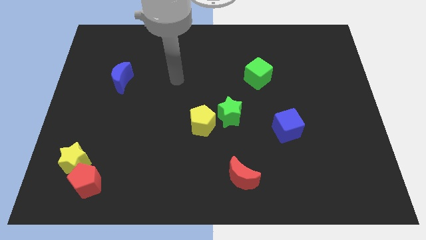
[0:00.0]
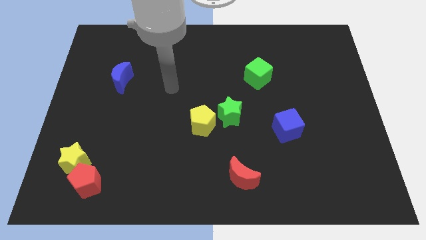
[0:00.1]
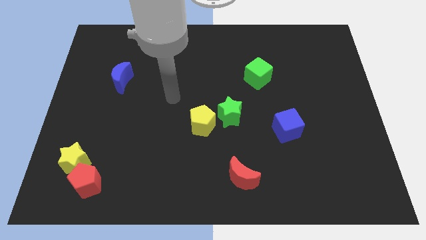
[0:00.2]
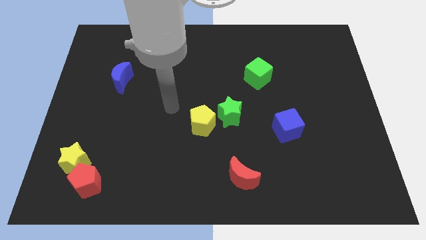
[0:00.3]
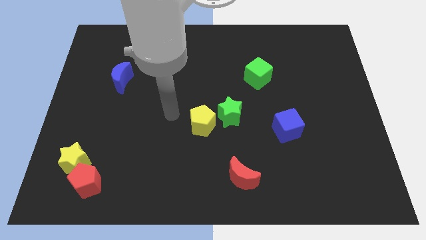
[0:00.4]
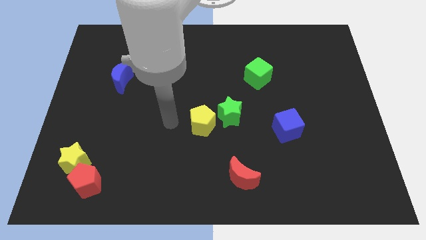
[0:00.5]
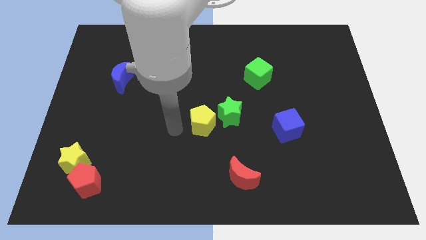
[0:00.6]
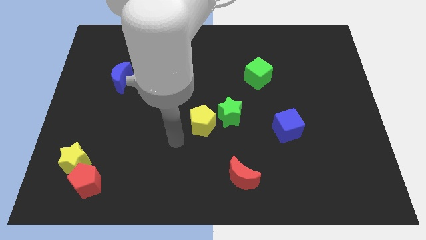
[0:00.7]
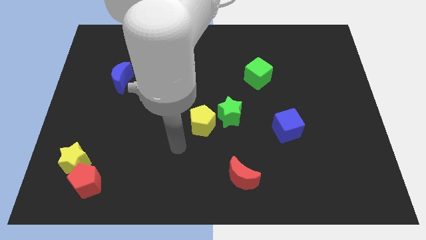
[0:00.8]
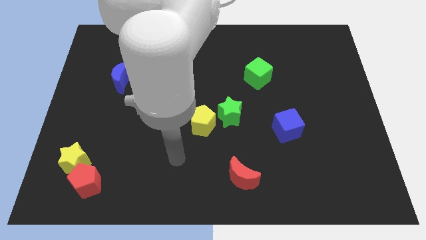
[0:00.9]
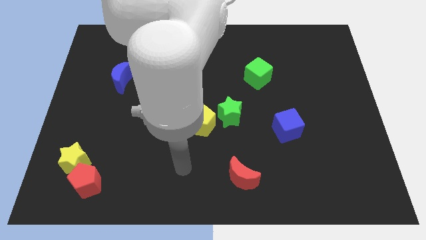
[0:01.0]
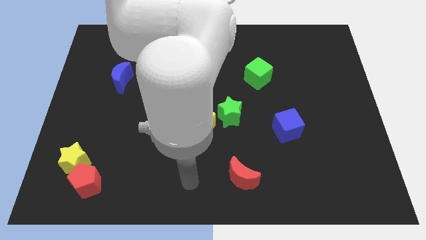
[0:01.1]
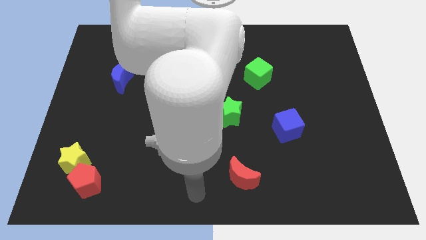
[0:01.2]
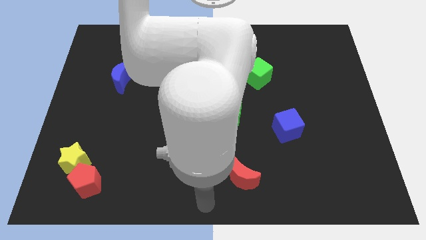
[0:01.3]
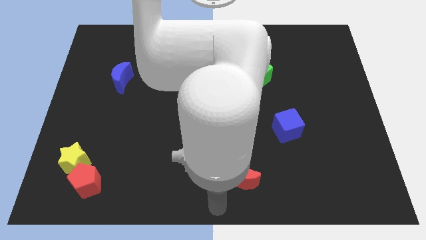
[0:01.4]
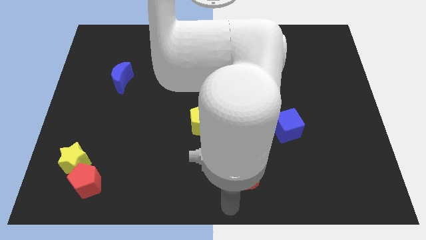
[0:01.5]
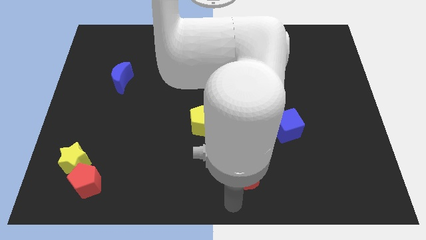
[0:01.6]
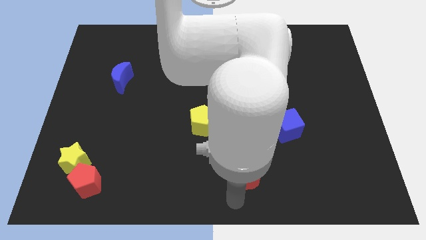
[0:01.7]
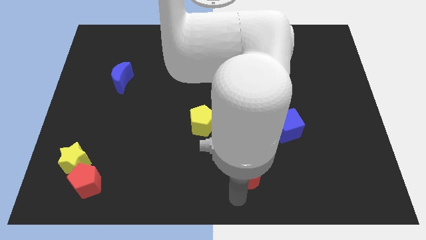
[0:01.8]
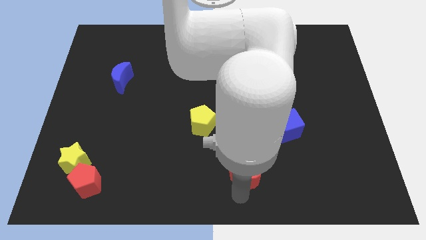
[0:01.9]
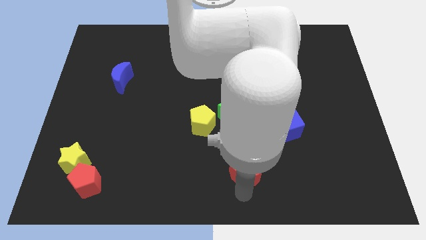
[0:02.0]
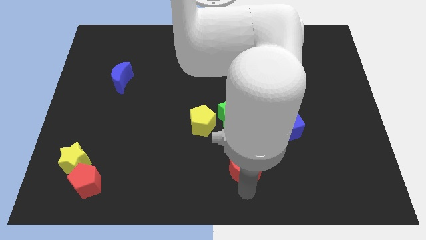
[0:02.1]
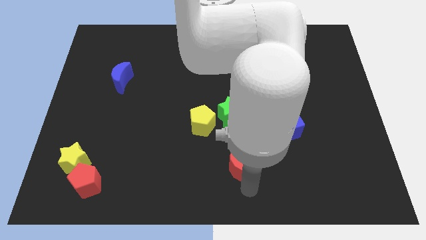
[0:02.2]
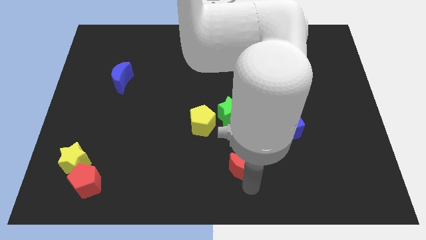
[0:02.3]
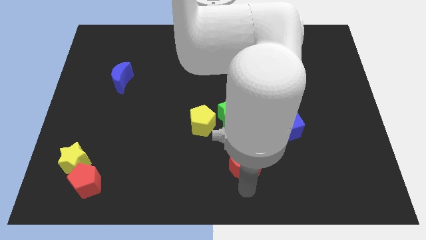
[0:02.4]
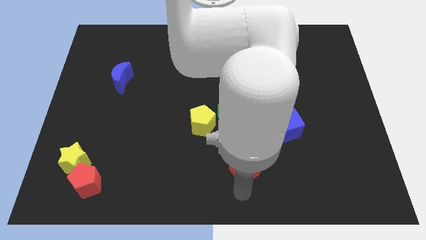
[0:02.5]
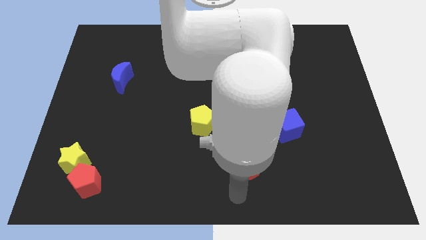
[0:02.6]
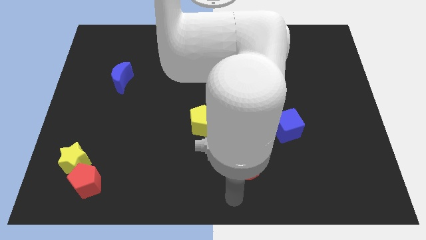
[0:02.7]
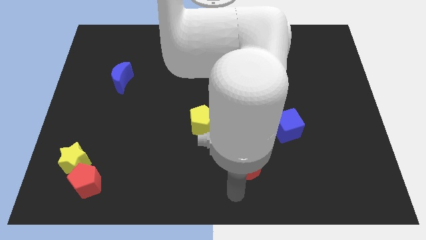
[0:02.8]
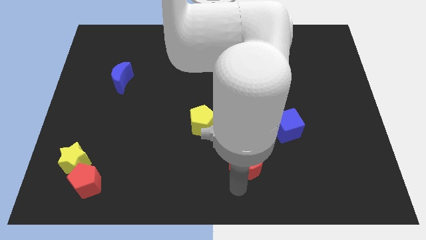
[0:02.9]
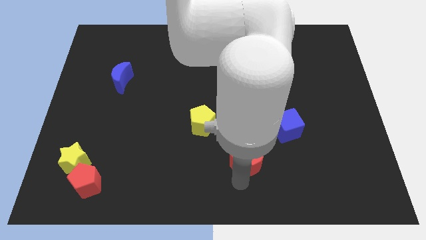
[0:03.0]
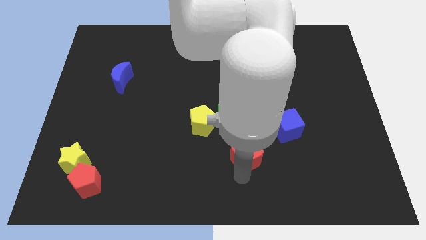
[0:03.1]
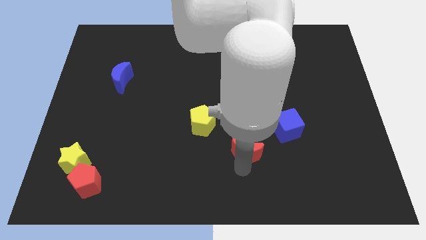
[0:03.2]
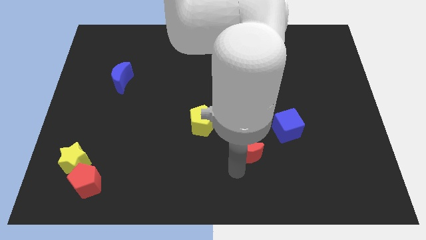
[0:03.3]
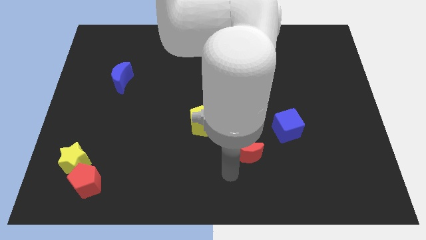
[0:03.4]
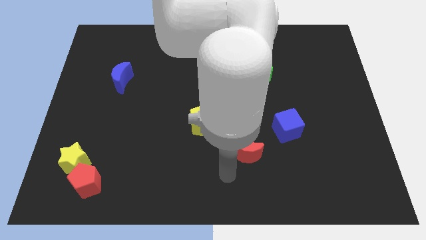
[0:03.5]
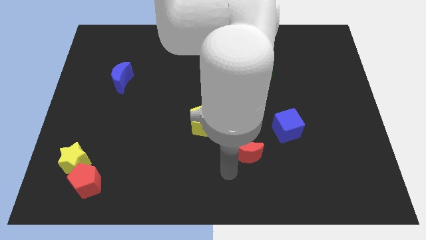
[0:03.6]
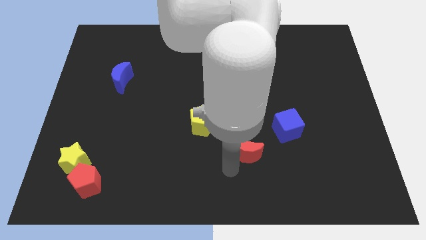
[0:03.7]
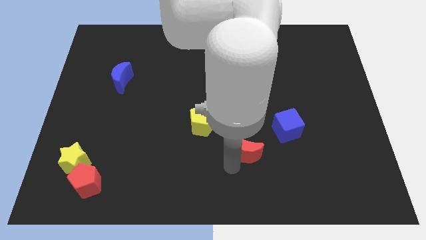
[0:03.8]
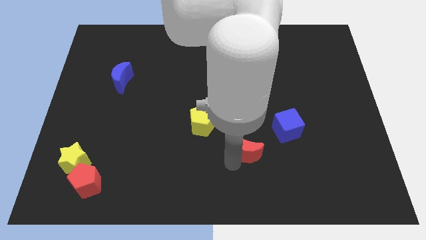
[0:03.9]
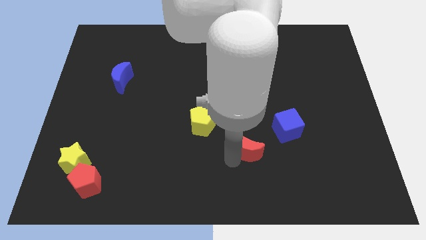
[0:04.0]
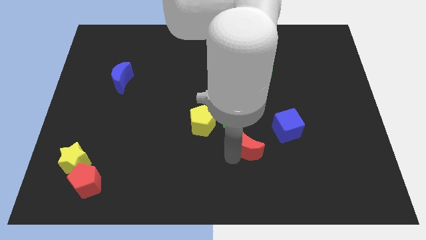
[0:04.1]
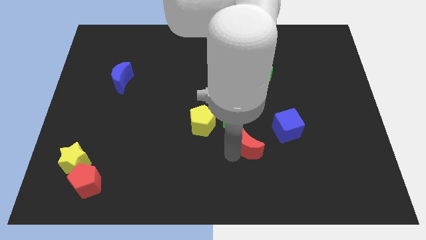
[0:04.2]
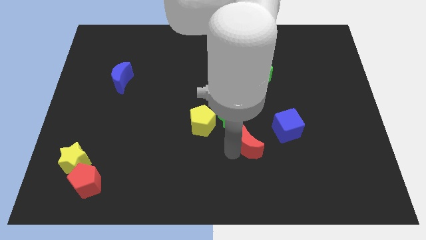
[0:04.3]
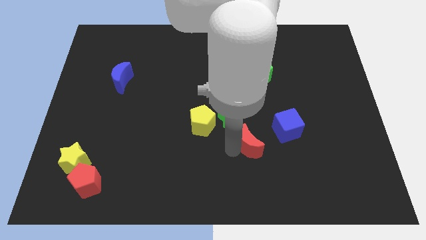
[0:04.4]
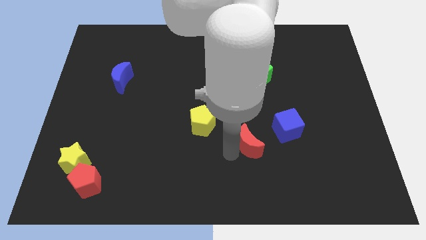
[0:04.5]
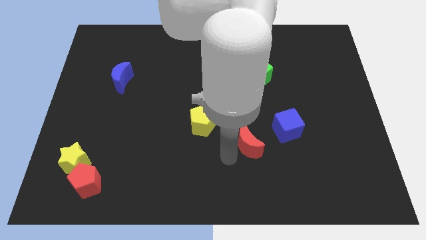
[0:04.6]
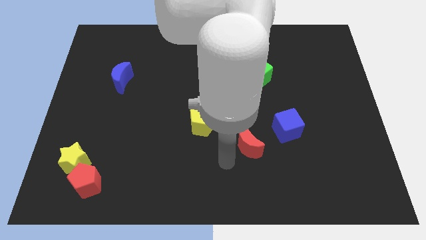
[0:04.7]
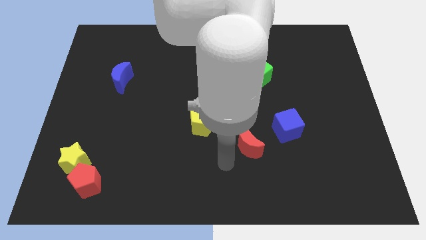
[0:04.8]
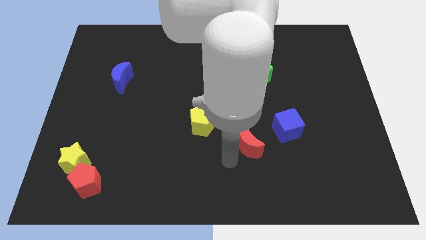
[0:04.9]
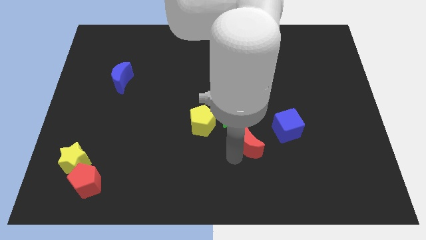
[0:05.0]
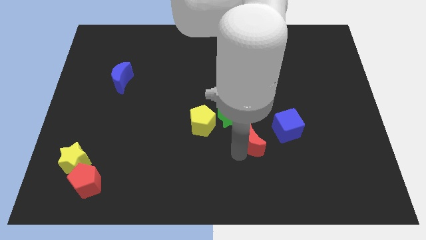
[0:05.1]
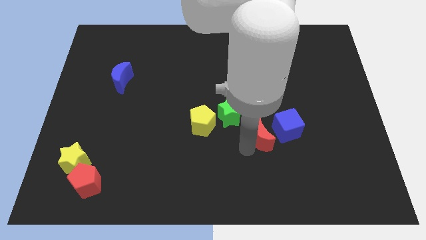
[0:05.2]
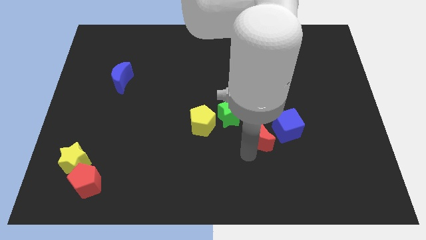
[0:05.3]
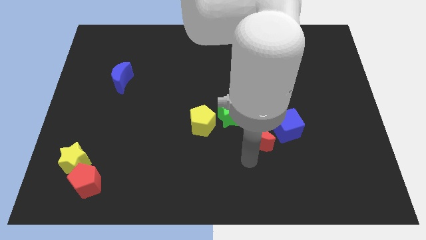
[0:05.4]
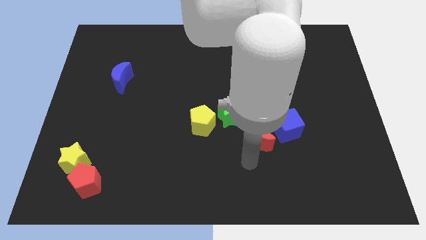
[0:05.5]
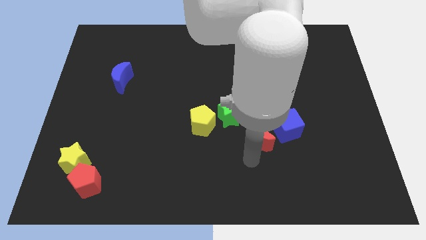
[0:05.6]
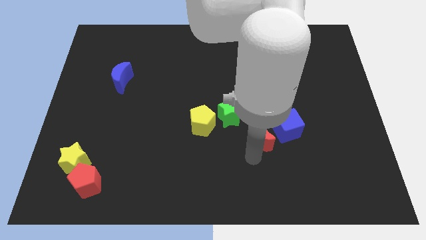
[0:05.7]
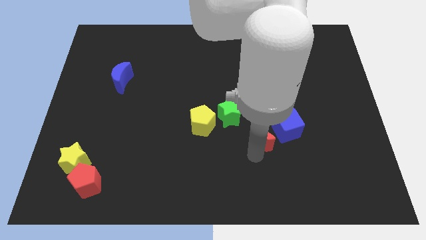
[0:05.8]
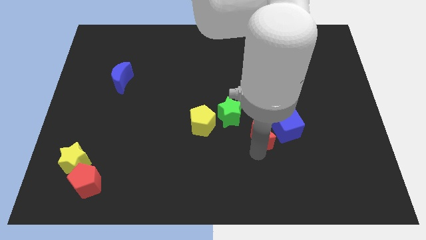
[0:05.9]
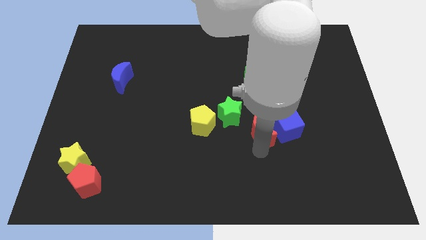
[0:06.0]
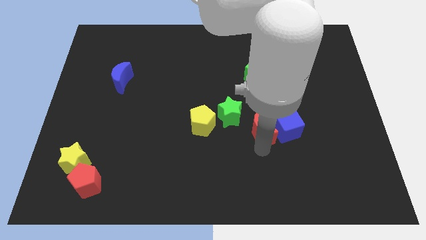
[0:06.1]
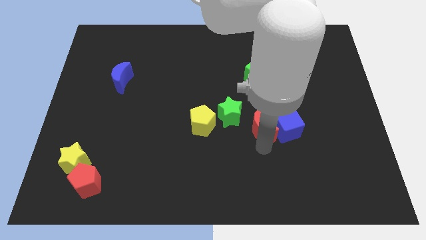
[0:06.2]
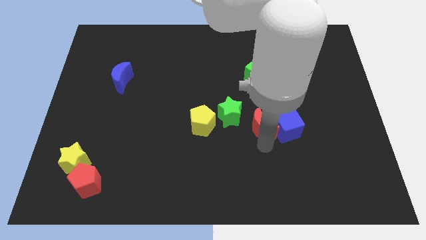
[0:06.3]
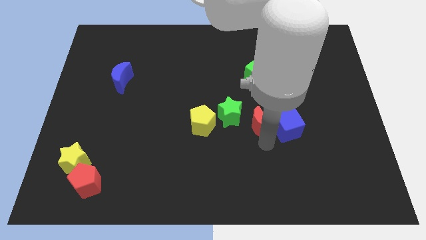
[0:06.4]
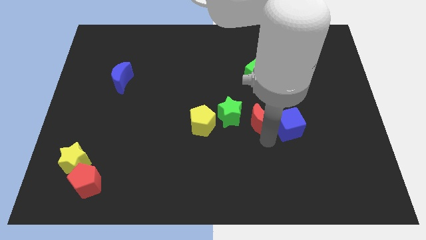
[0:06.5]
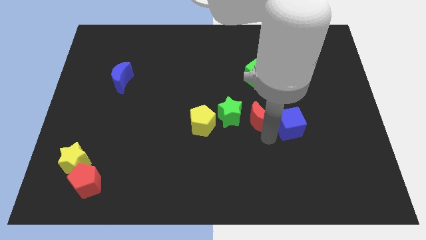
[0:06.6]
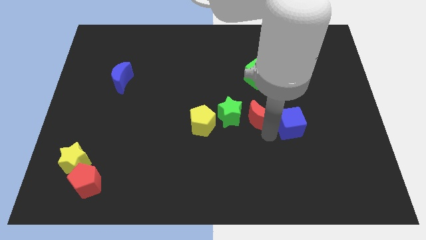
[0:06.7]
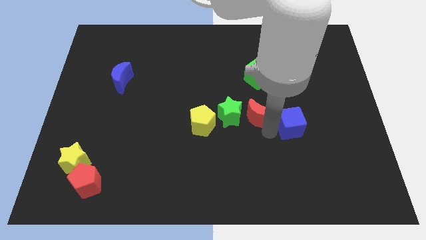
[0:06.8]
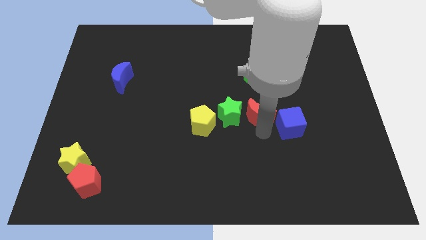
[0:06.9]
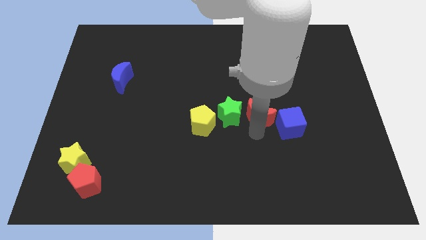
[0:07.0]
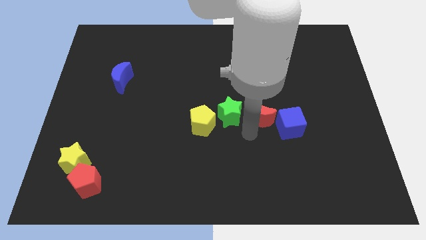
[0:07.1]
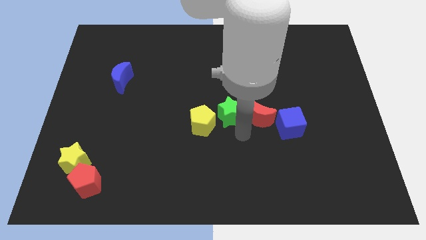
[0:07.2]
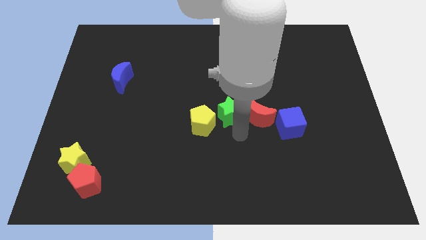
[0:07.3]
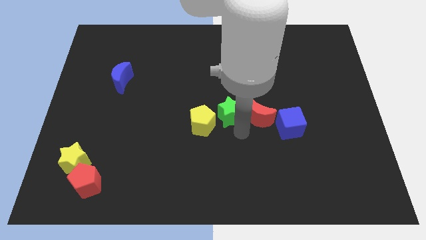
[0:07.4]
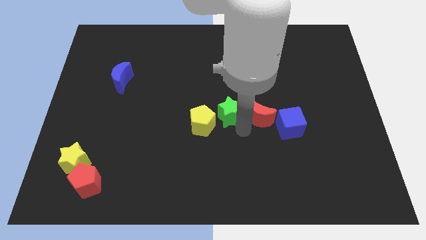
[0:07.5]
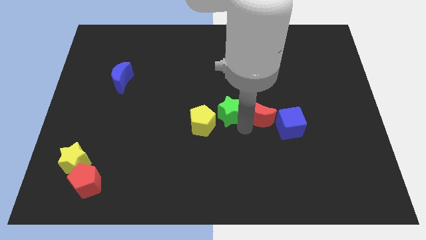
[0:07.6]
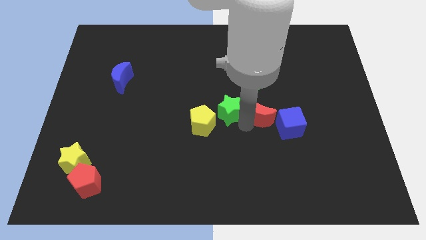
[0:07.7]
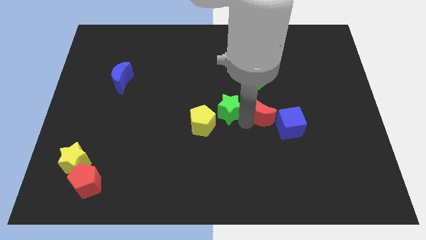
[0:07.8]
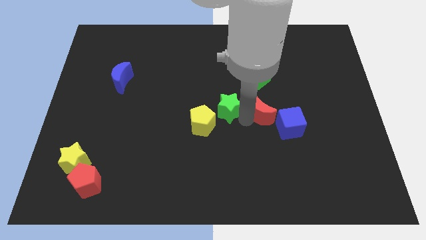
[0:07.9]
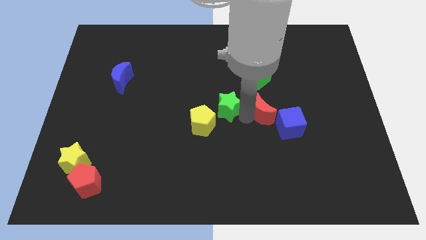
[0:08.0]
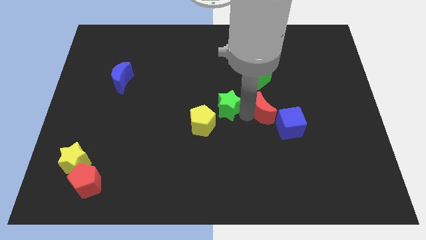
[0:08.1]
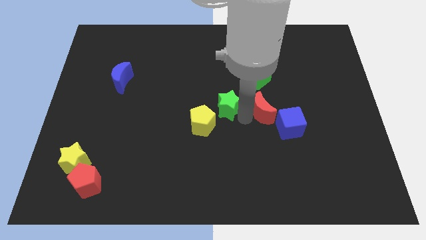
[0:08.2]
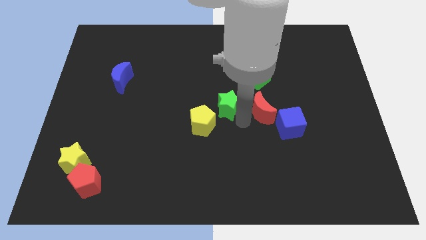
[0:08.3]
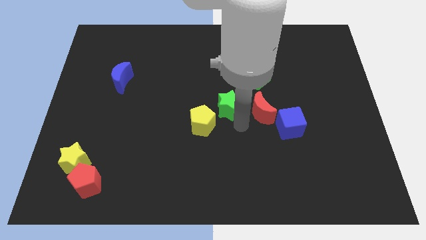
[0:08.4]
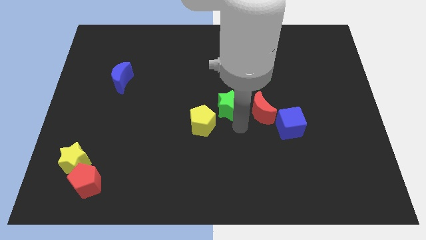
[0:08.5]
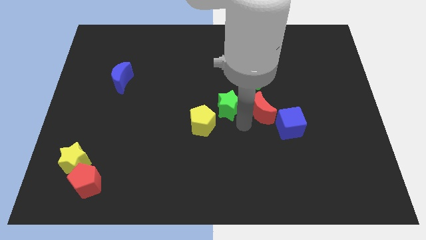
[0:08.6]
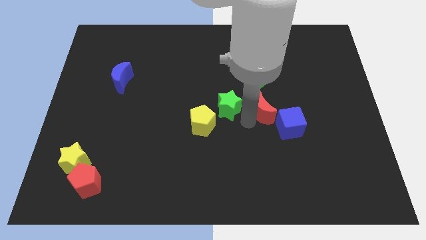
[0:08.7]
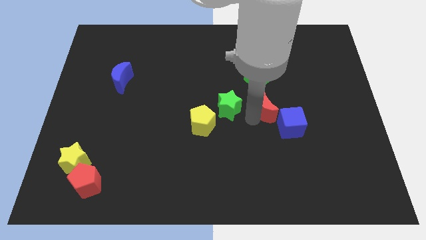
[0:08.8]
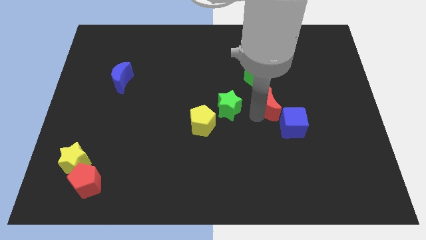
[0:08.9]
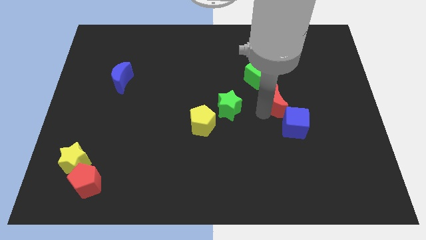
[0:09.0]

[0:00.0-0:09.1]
move the red moon diagonally down and to the right of the green cube
